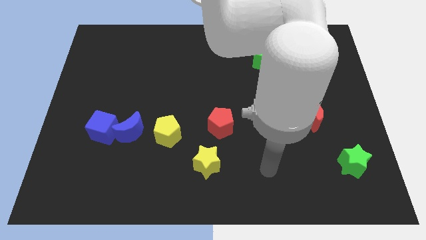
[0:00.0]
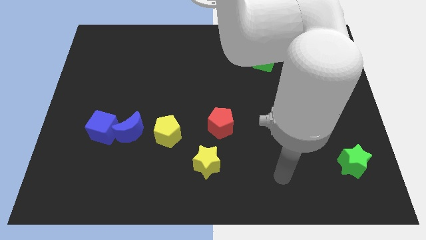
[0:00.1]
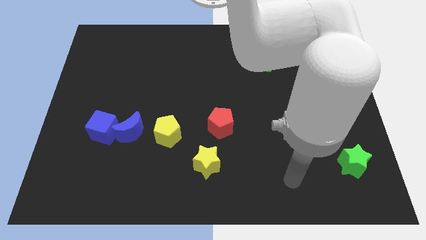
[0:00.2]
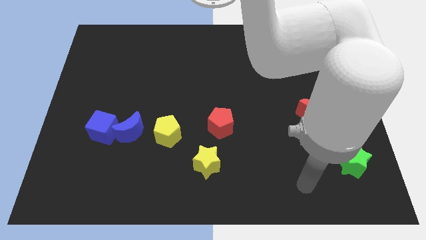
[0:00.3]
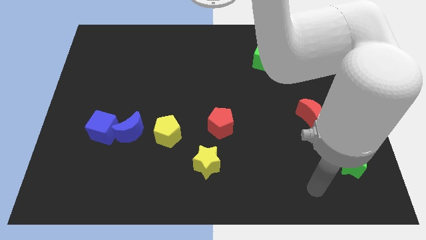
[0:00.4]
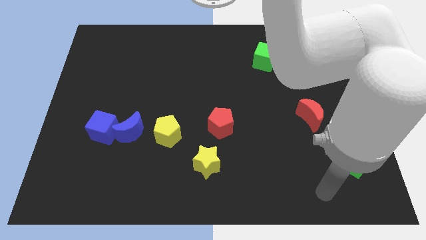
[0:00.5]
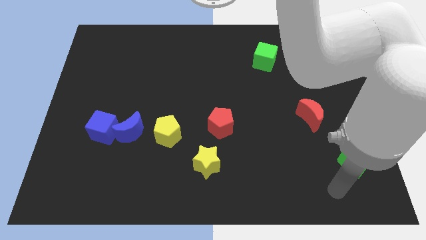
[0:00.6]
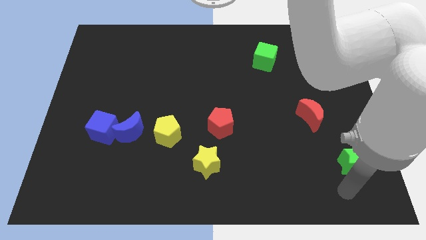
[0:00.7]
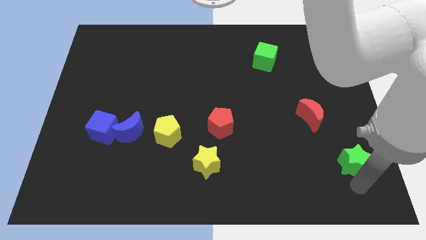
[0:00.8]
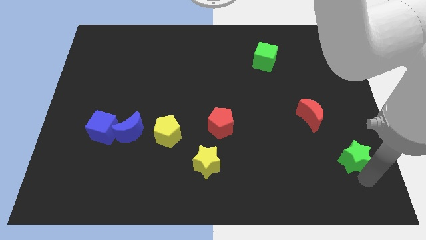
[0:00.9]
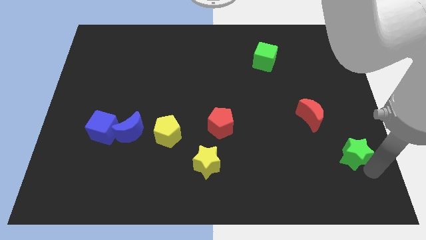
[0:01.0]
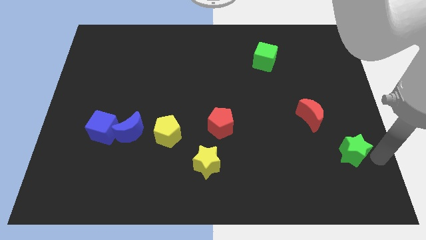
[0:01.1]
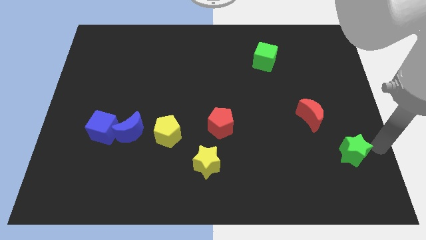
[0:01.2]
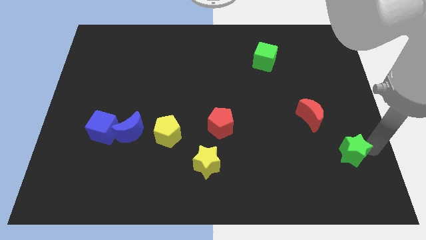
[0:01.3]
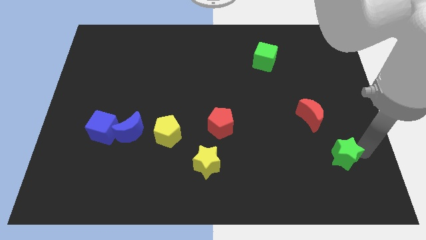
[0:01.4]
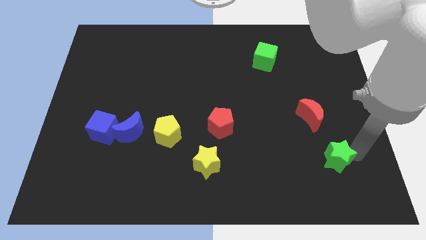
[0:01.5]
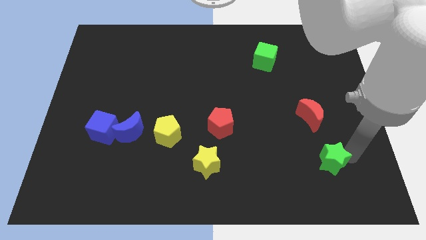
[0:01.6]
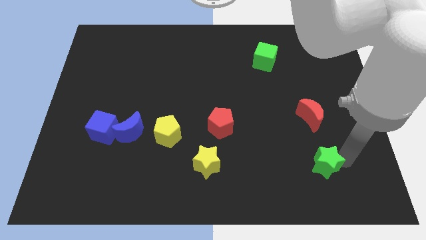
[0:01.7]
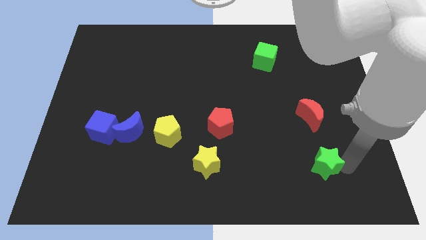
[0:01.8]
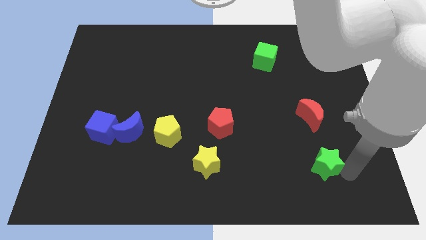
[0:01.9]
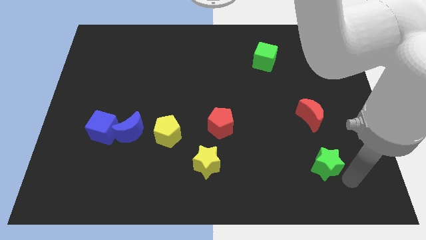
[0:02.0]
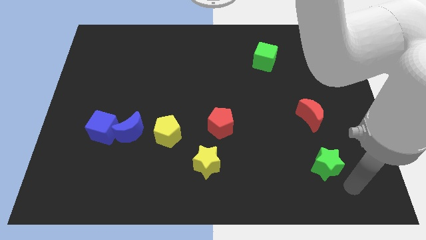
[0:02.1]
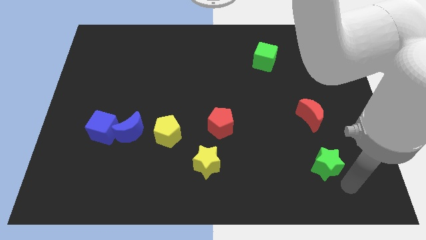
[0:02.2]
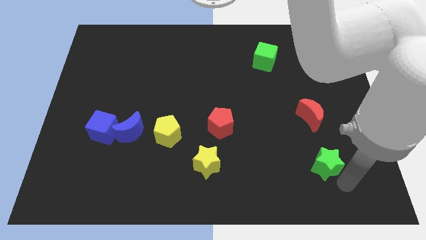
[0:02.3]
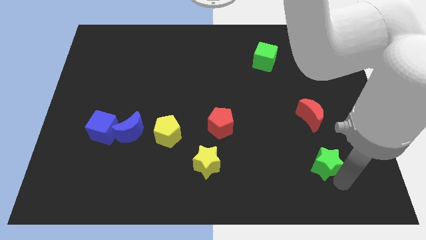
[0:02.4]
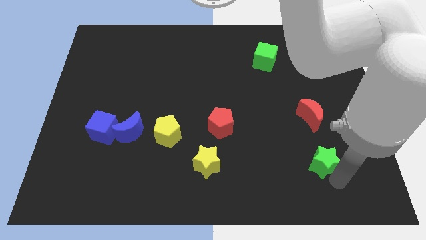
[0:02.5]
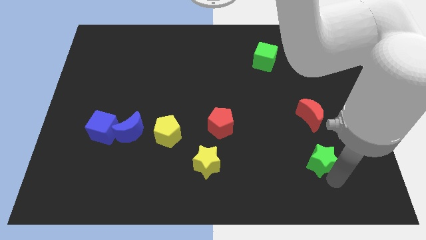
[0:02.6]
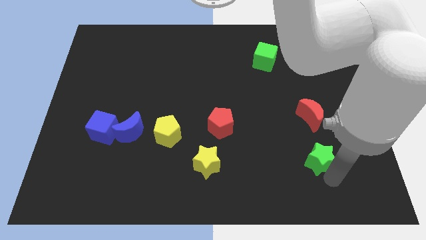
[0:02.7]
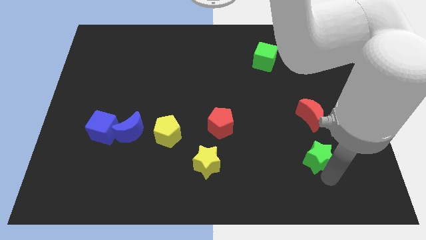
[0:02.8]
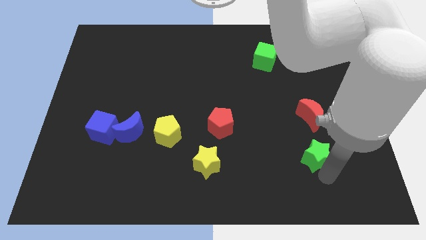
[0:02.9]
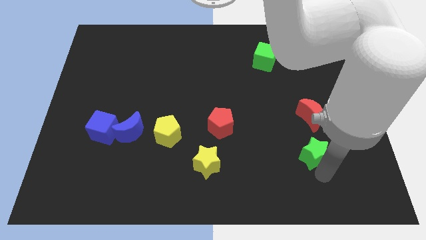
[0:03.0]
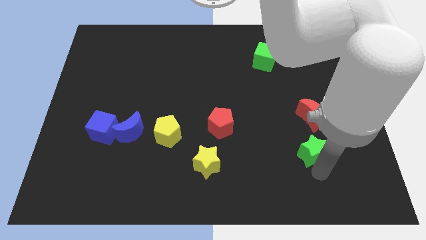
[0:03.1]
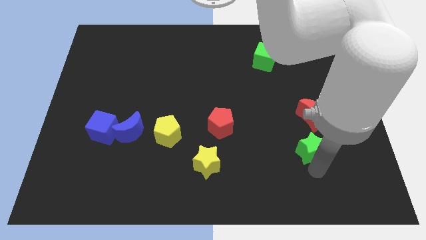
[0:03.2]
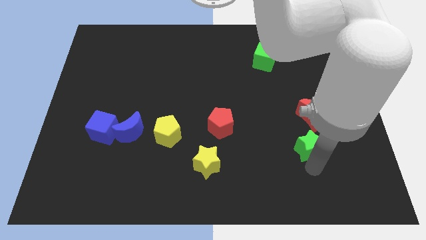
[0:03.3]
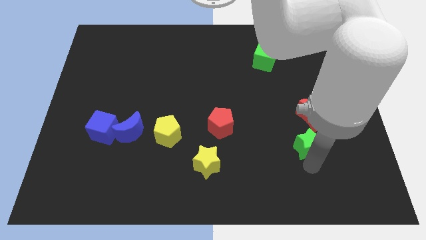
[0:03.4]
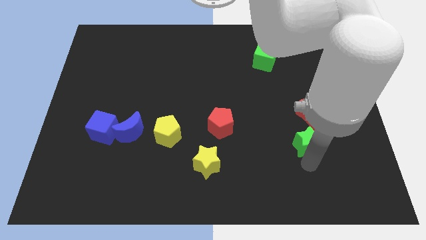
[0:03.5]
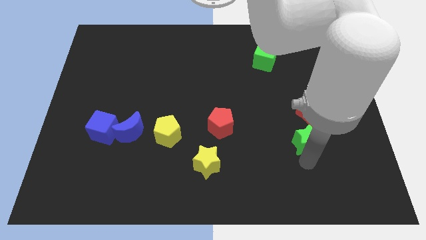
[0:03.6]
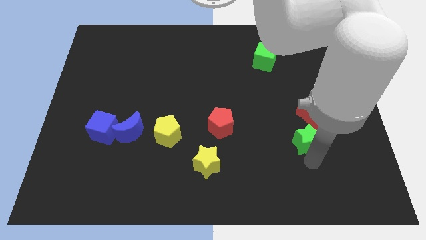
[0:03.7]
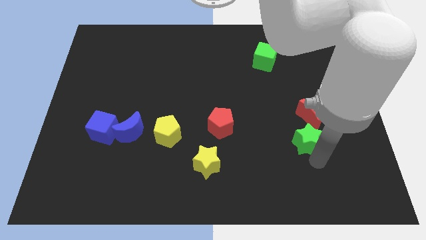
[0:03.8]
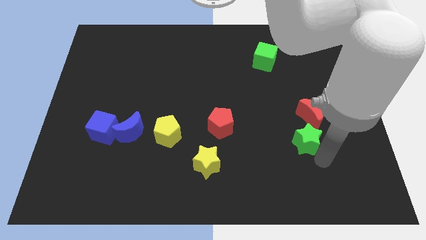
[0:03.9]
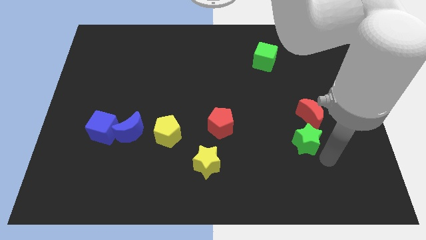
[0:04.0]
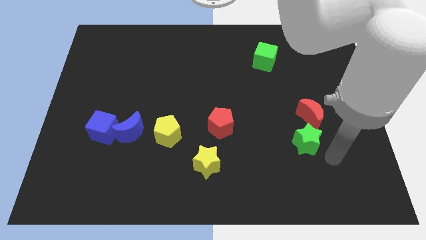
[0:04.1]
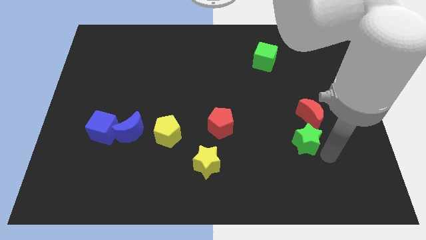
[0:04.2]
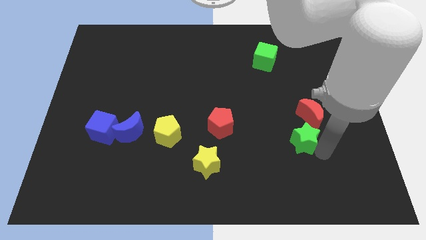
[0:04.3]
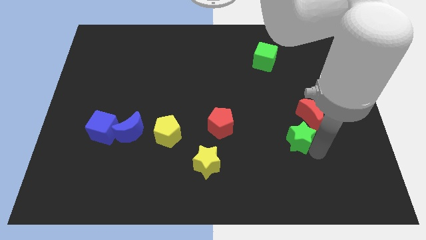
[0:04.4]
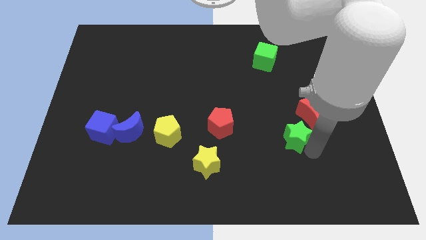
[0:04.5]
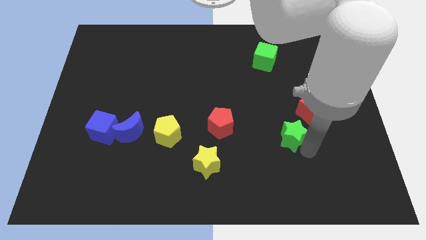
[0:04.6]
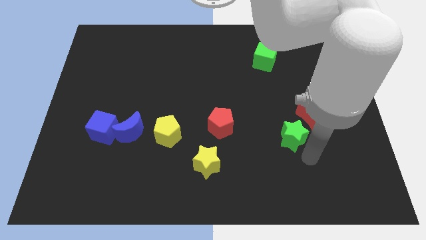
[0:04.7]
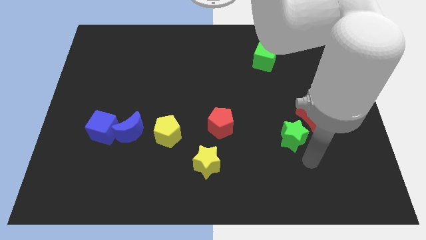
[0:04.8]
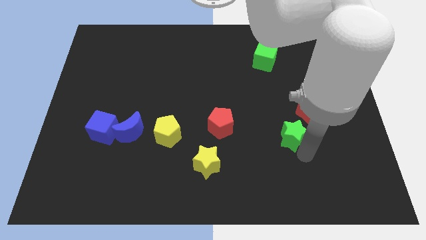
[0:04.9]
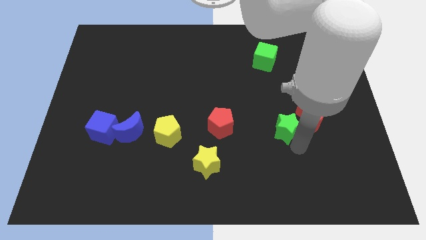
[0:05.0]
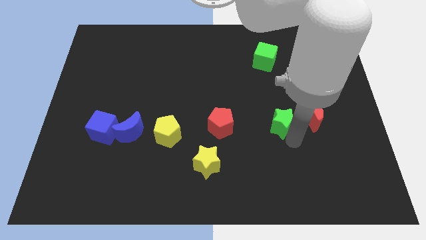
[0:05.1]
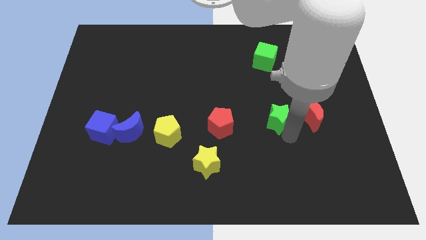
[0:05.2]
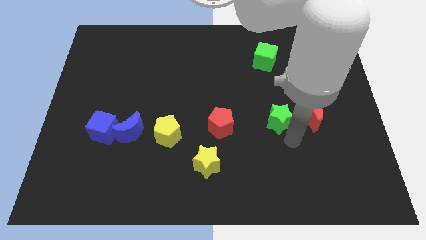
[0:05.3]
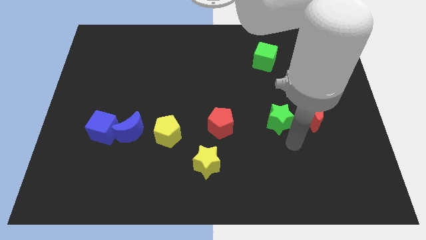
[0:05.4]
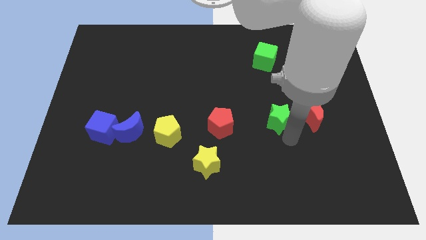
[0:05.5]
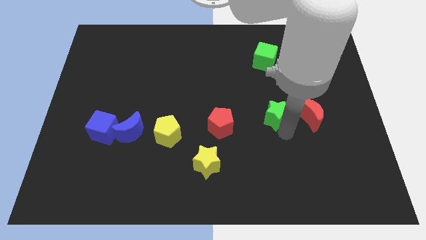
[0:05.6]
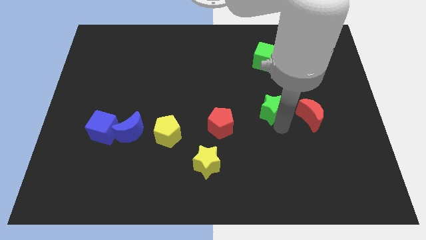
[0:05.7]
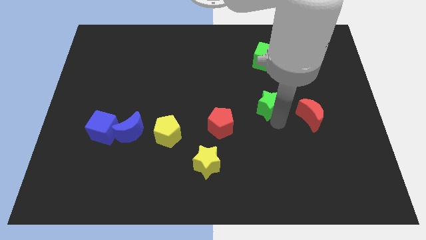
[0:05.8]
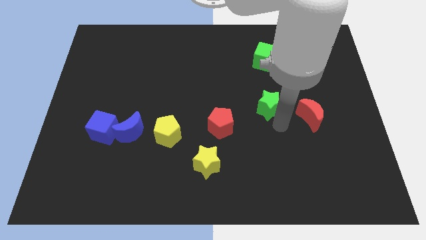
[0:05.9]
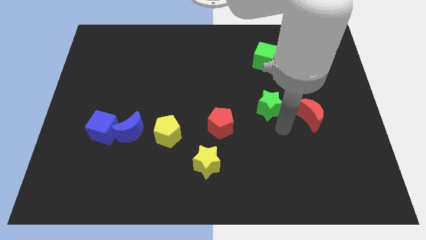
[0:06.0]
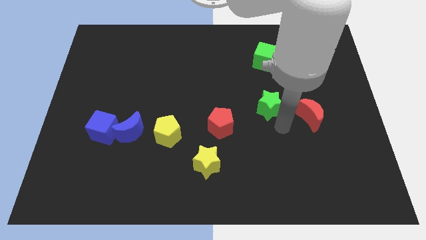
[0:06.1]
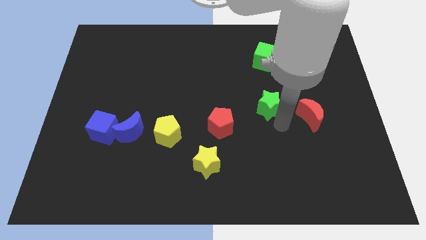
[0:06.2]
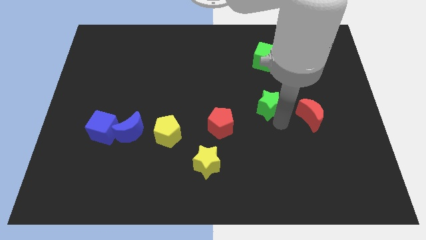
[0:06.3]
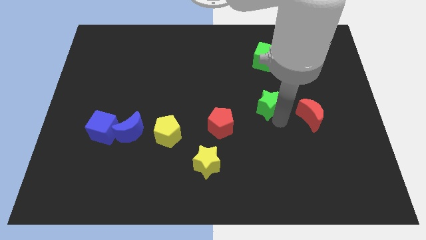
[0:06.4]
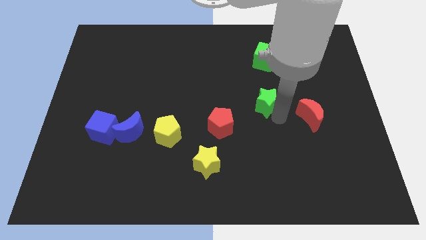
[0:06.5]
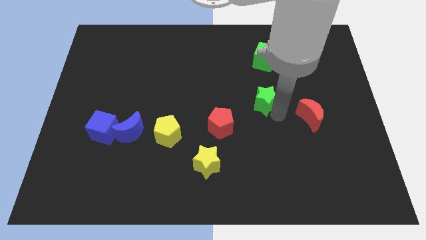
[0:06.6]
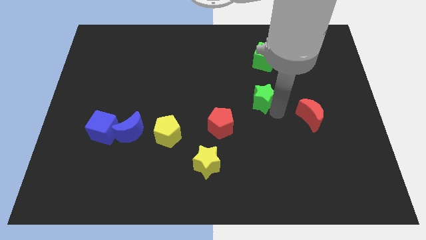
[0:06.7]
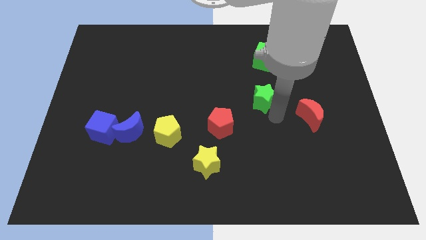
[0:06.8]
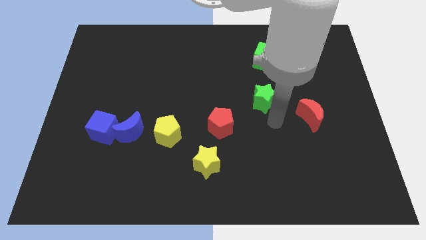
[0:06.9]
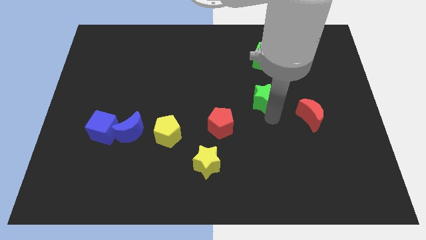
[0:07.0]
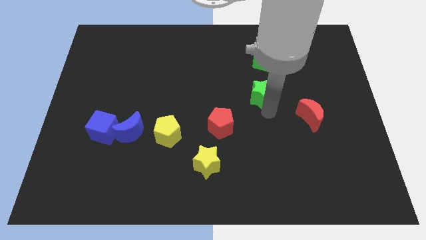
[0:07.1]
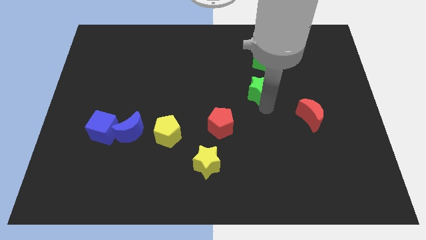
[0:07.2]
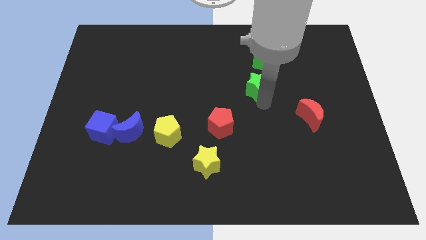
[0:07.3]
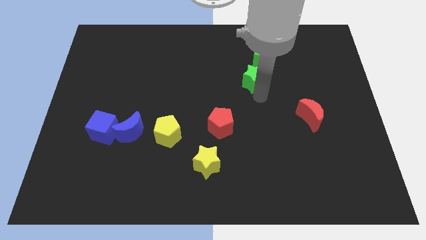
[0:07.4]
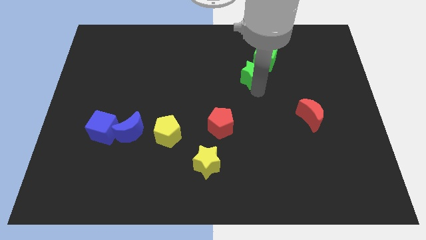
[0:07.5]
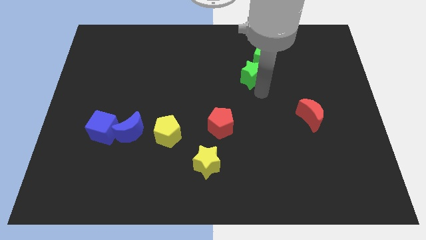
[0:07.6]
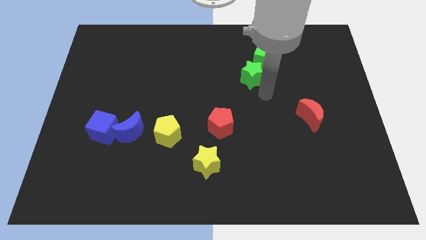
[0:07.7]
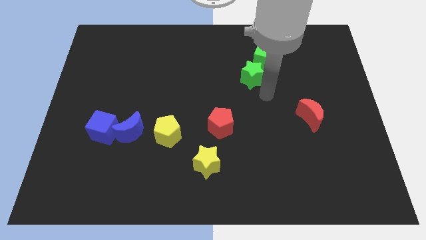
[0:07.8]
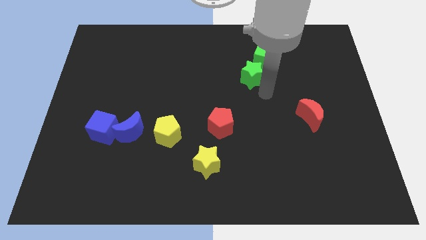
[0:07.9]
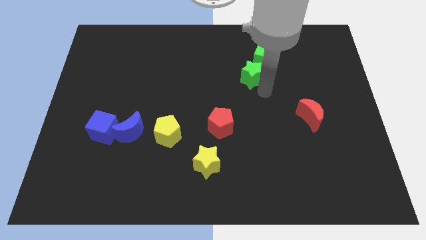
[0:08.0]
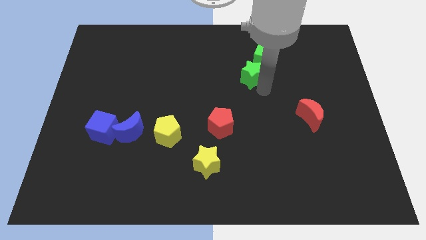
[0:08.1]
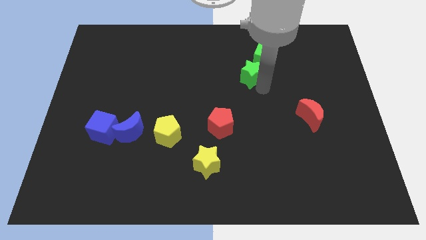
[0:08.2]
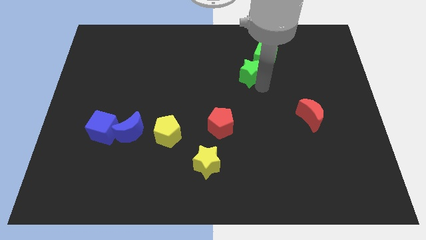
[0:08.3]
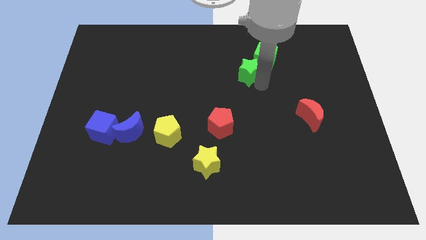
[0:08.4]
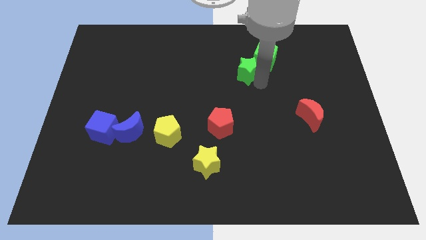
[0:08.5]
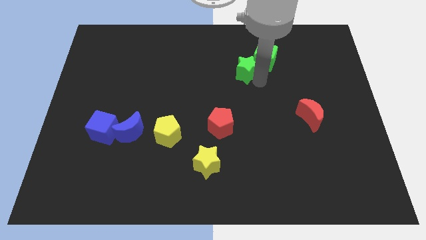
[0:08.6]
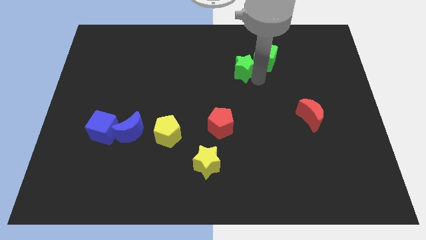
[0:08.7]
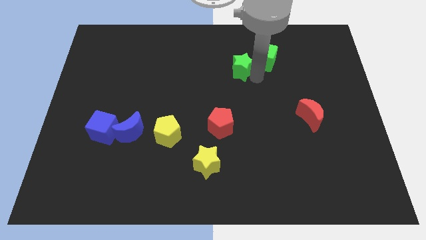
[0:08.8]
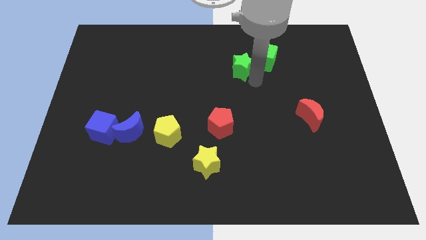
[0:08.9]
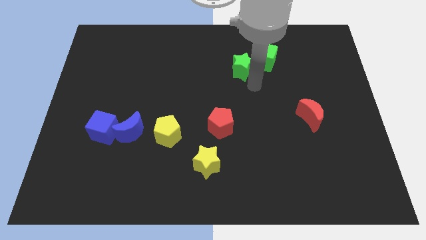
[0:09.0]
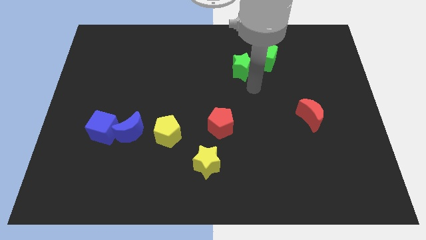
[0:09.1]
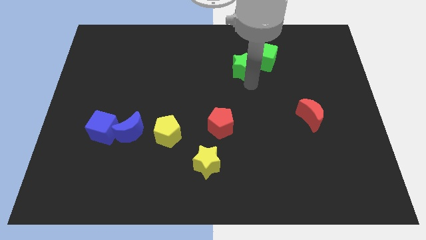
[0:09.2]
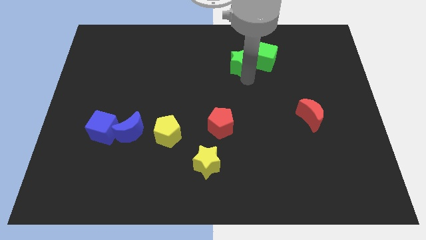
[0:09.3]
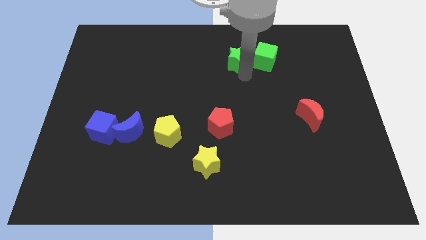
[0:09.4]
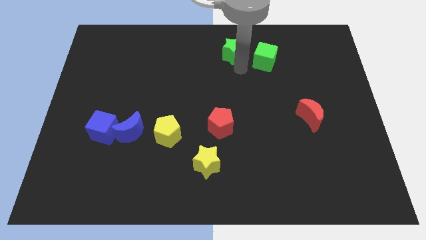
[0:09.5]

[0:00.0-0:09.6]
push the green star to the top
